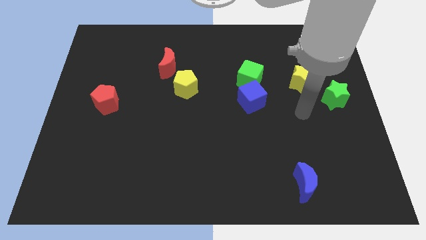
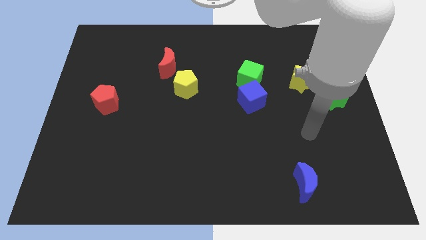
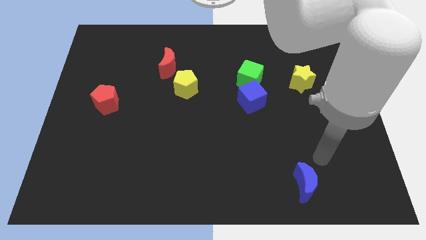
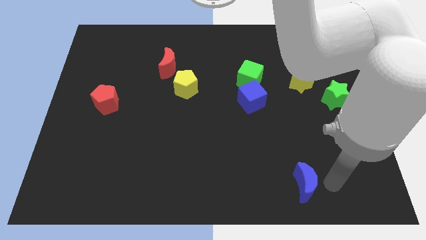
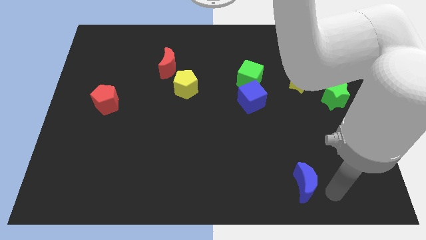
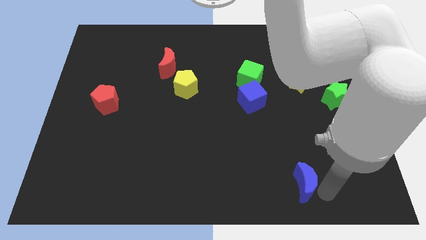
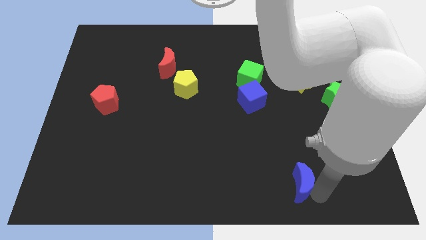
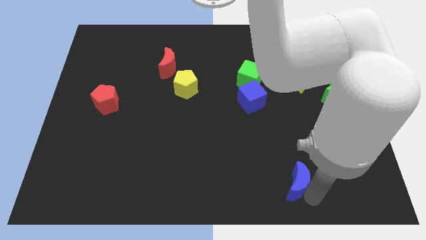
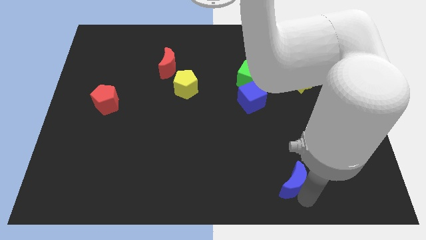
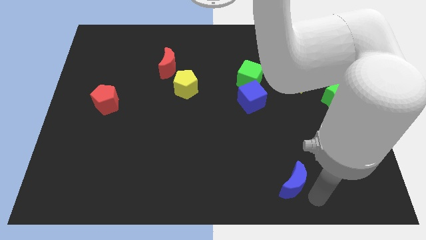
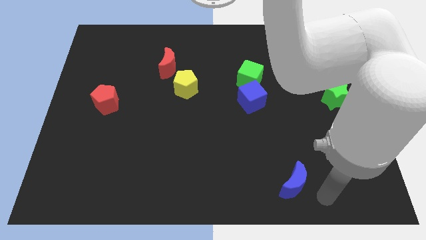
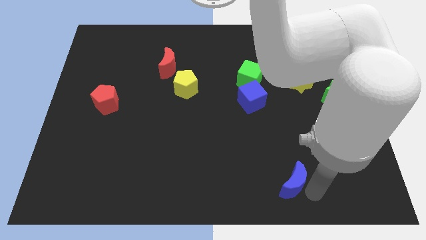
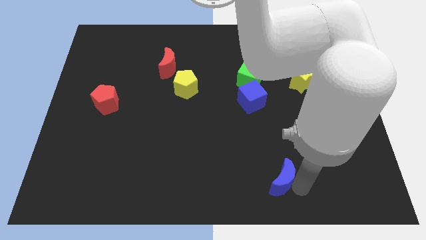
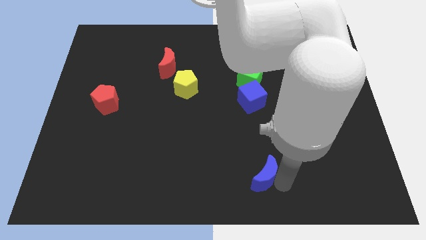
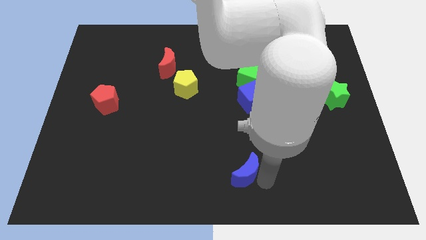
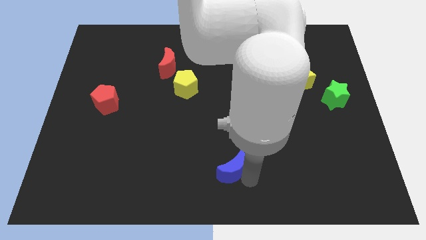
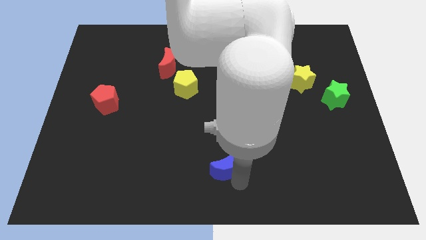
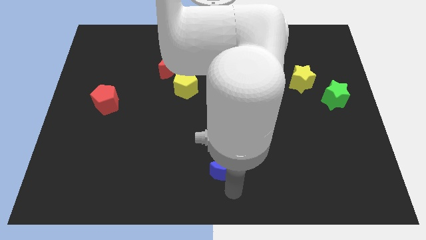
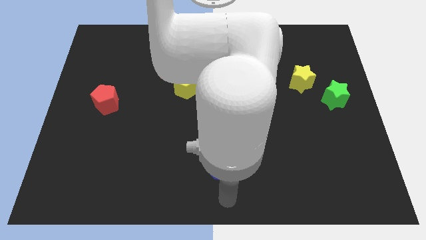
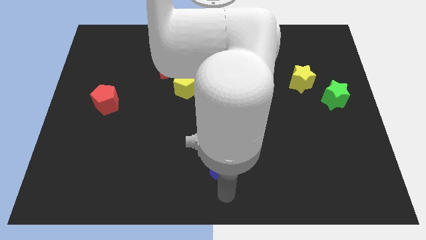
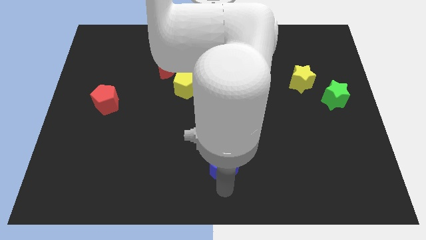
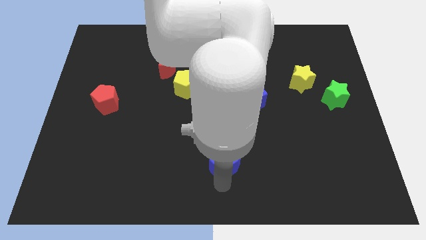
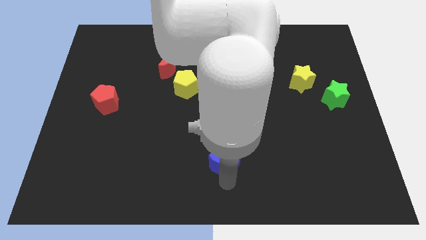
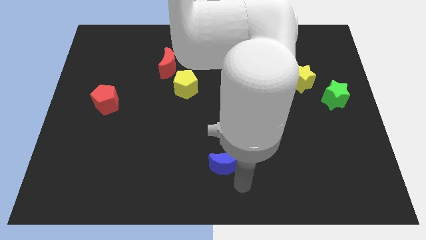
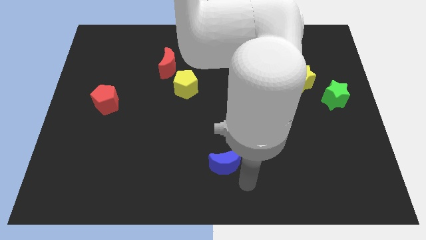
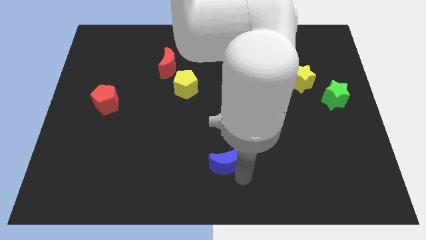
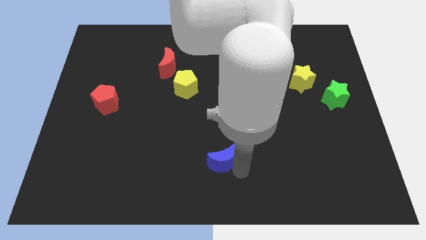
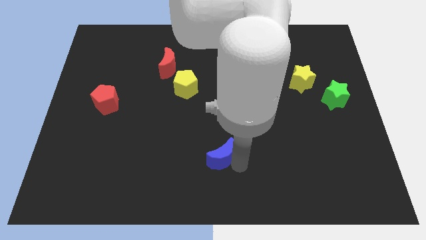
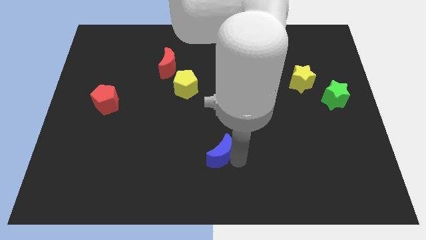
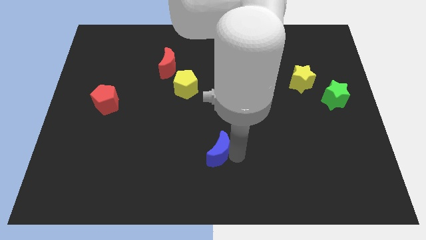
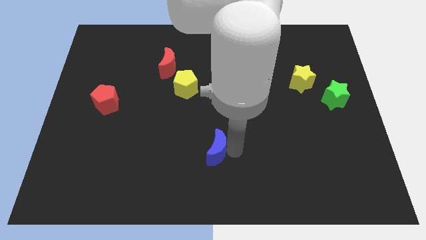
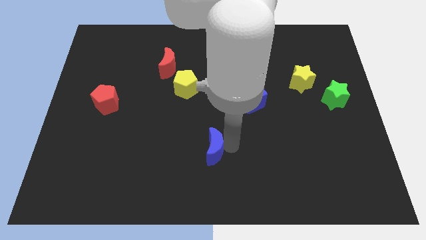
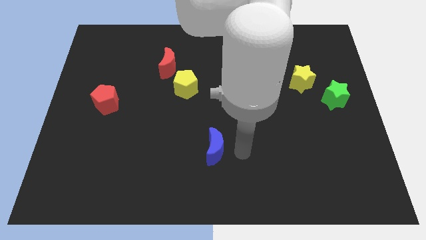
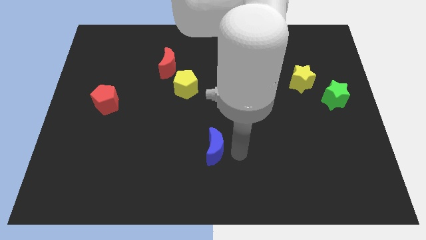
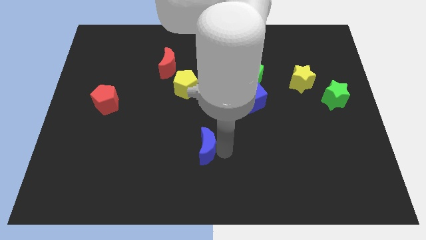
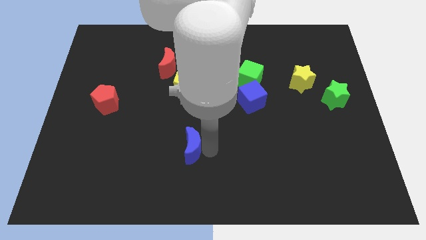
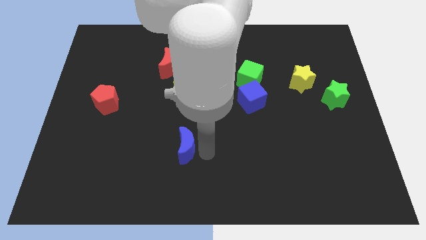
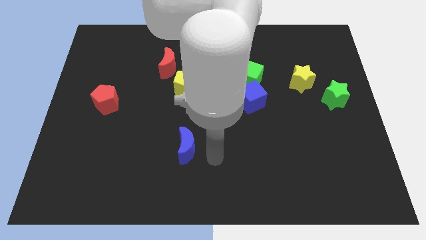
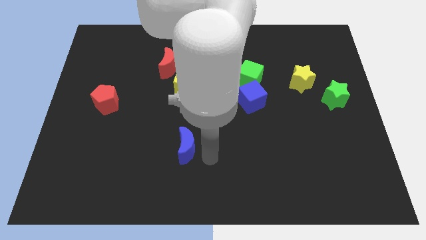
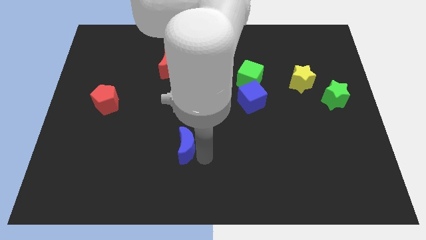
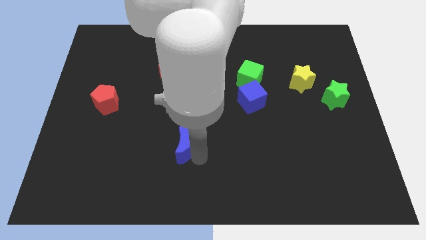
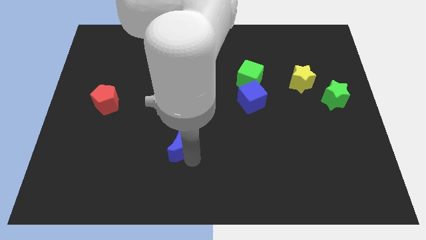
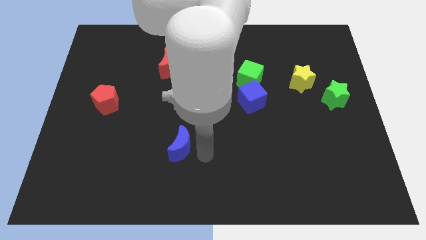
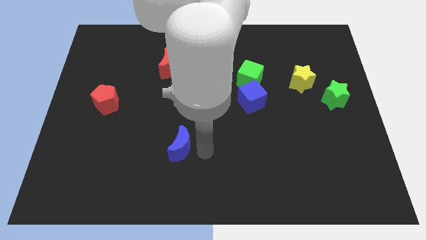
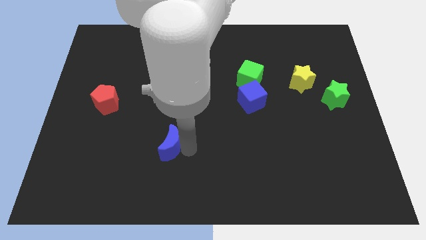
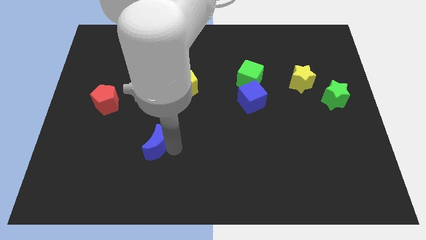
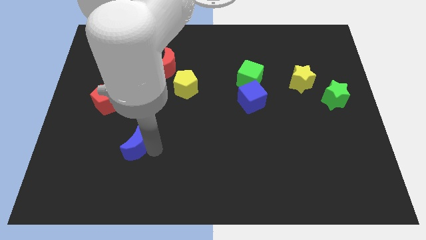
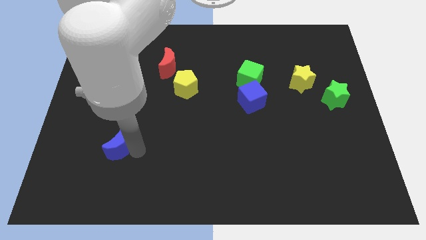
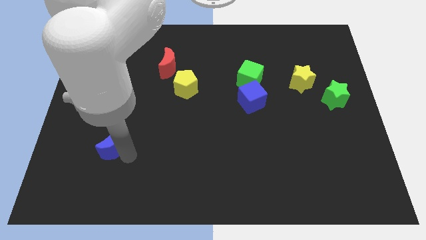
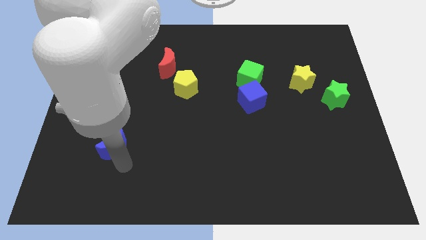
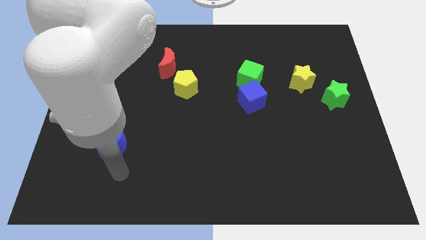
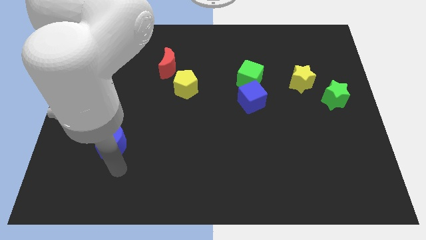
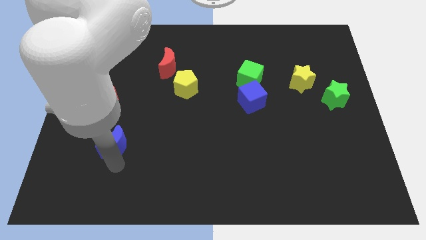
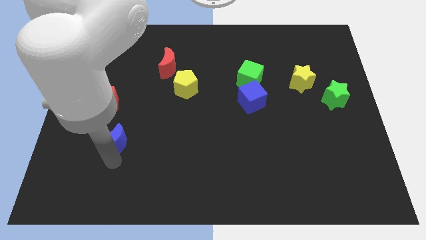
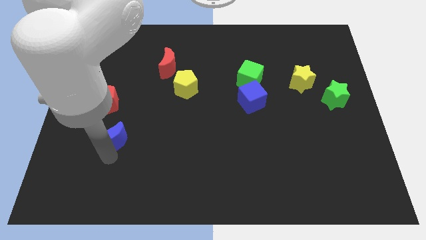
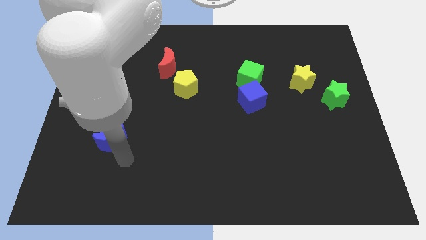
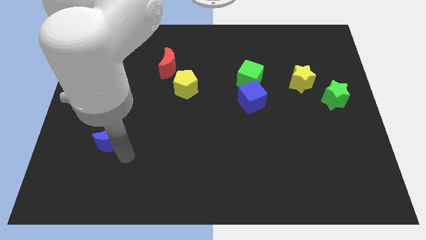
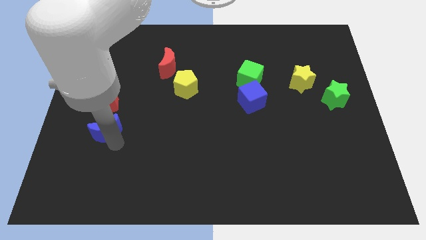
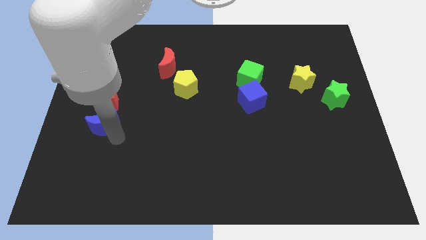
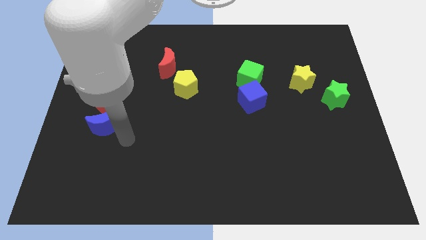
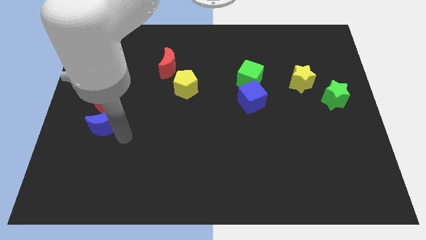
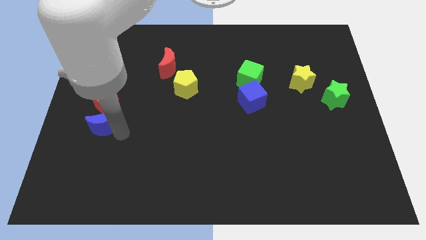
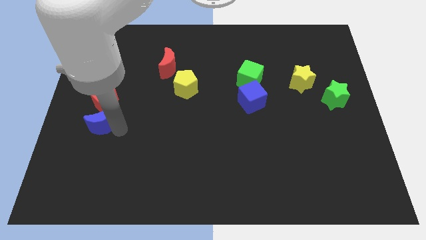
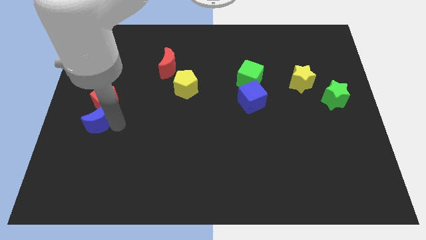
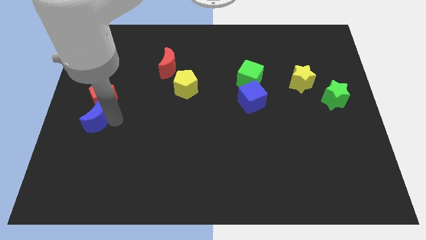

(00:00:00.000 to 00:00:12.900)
put the blue moon to the left side of the board
